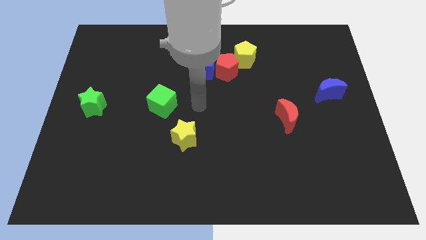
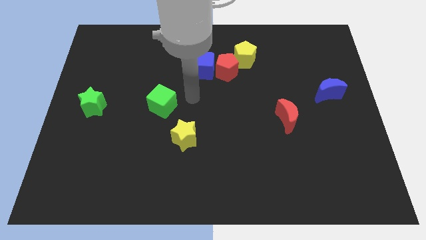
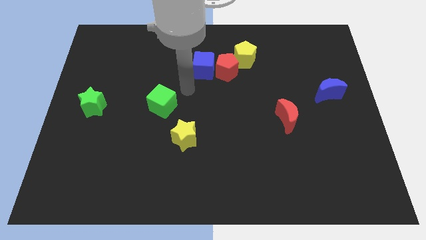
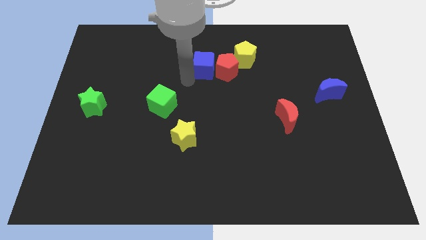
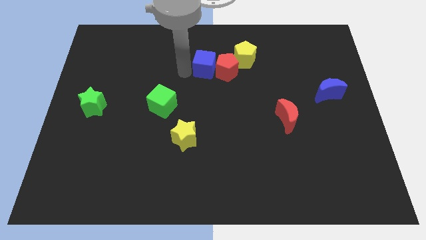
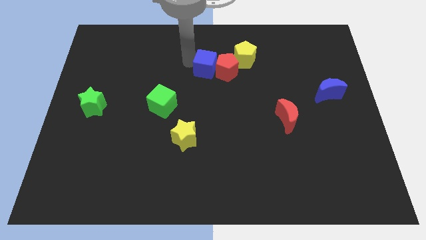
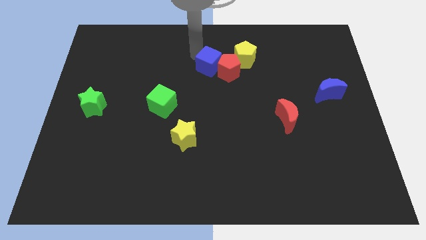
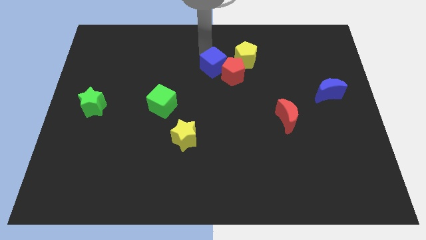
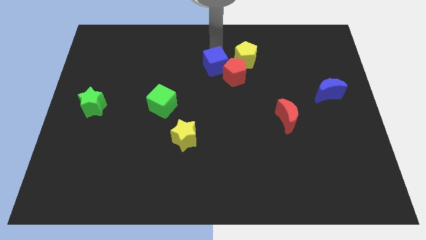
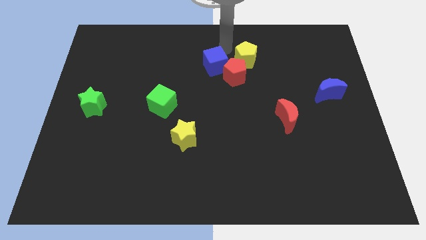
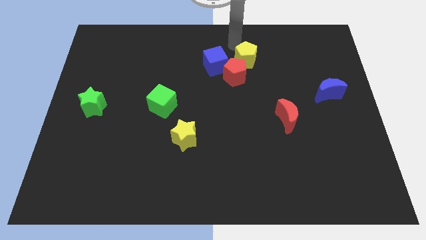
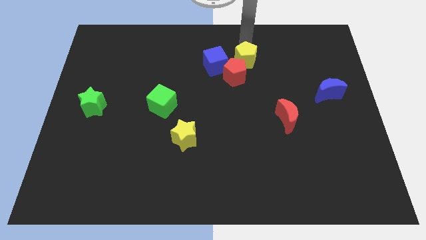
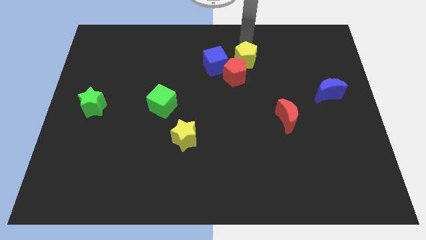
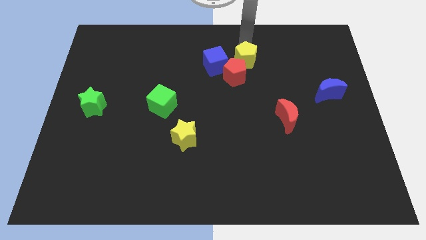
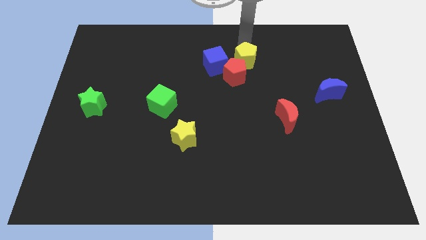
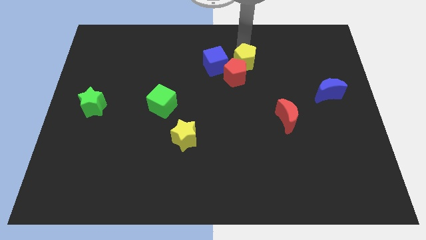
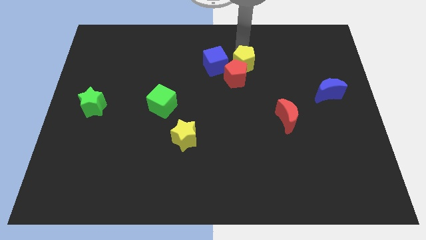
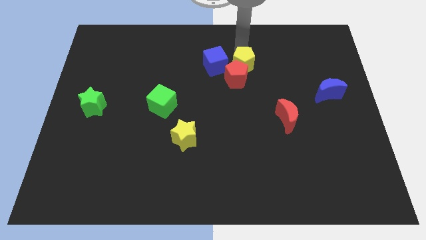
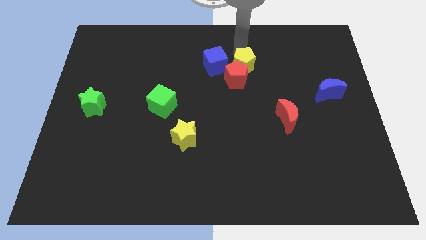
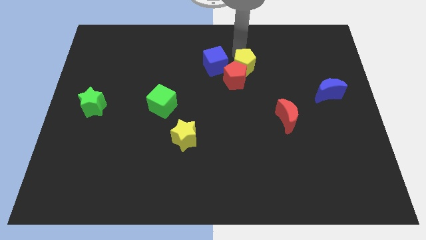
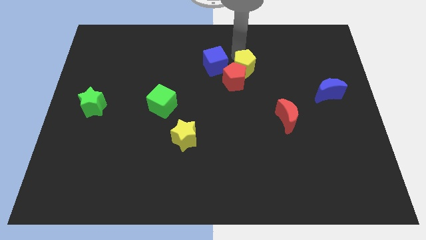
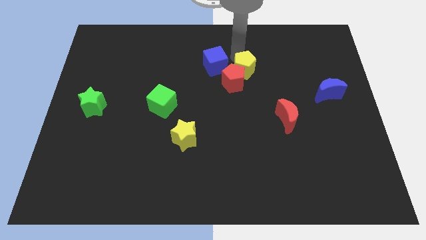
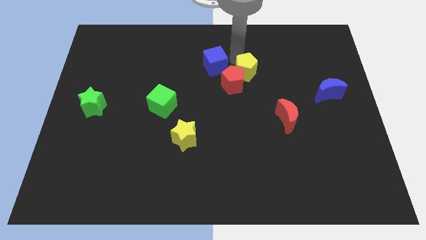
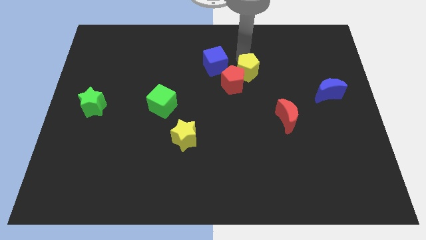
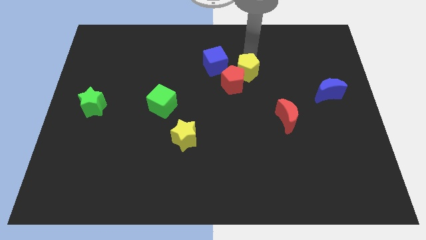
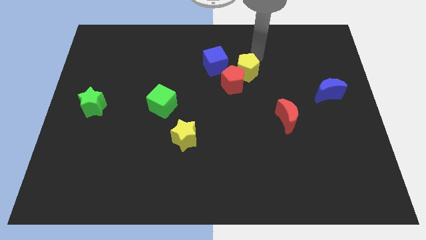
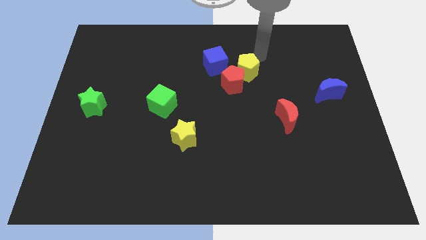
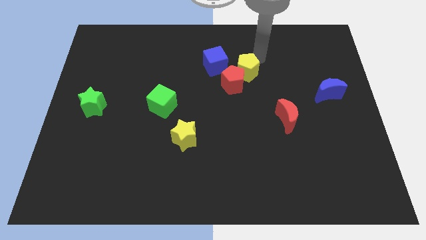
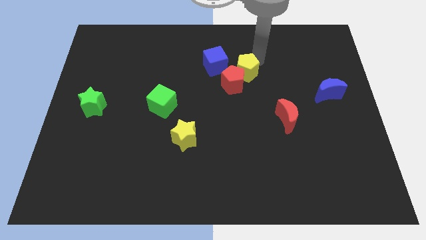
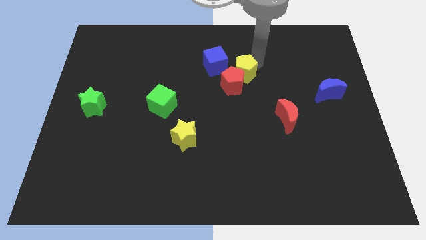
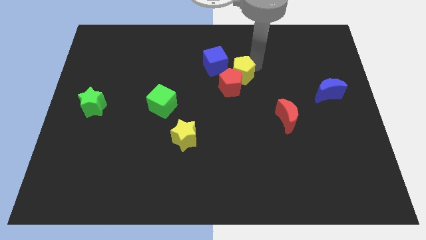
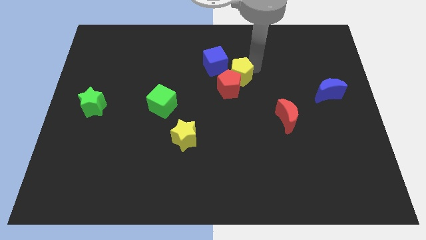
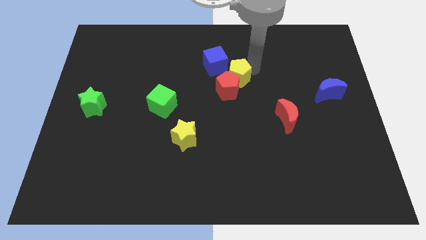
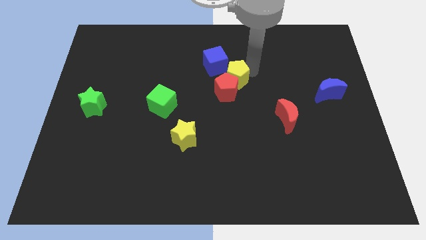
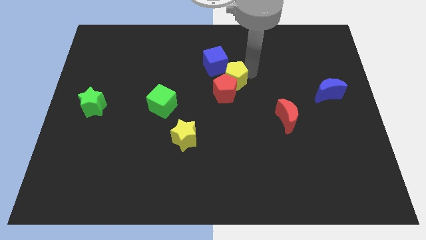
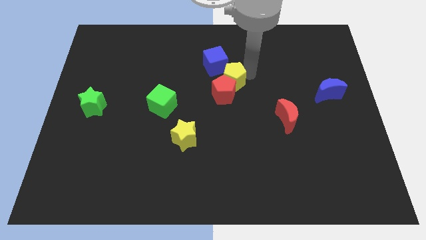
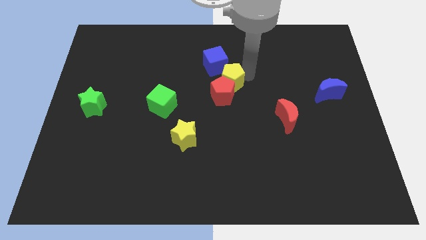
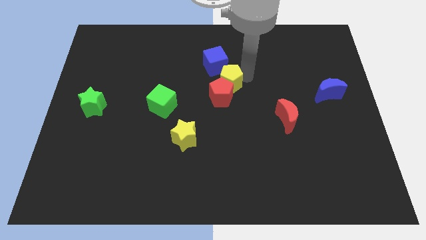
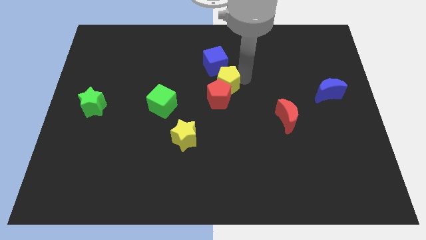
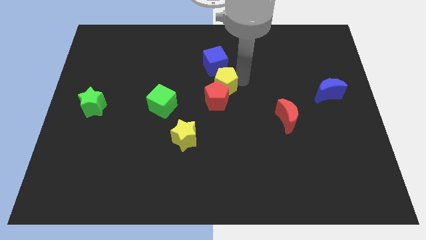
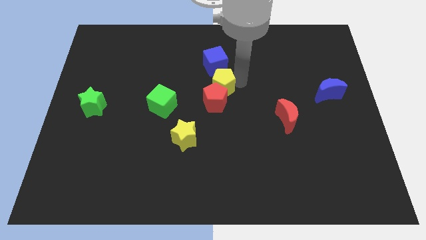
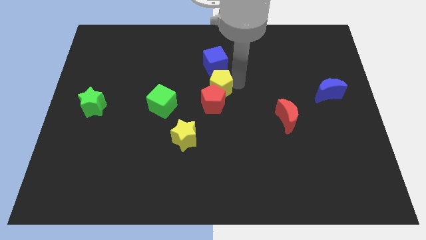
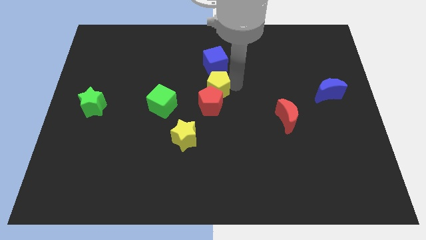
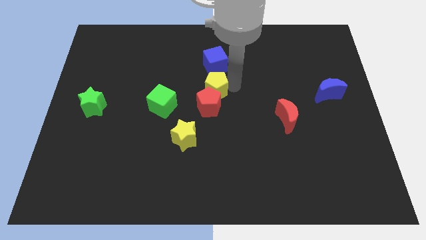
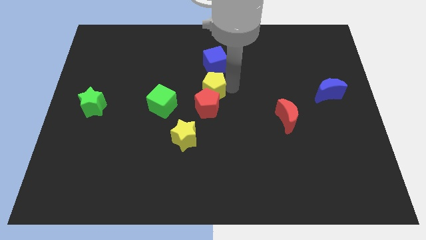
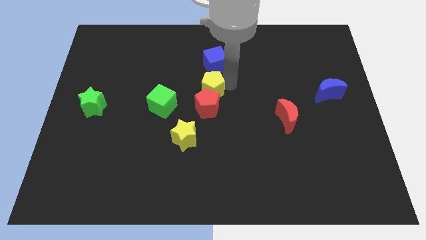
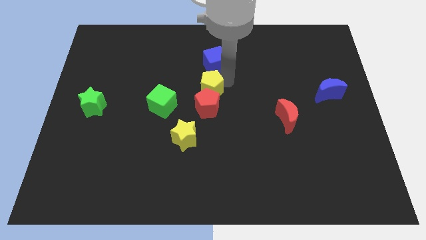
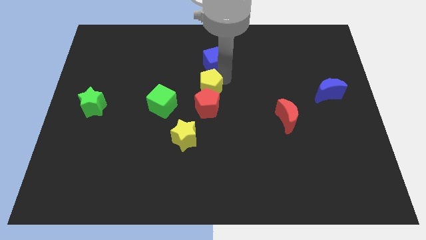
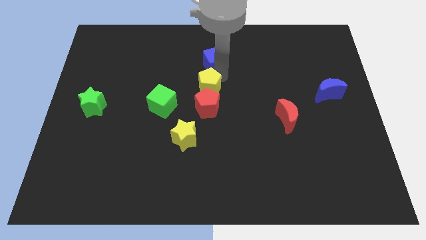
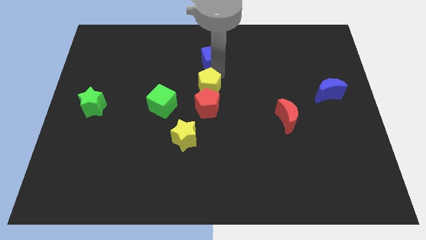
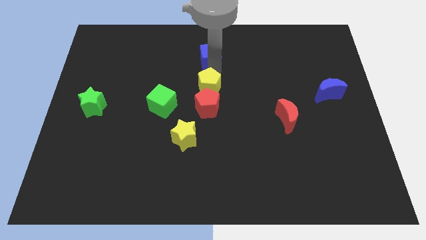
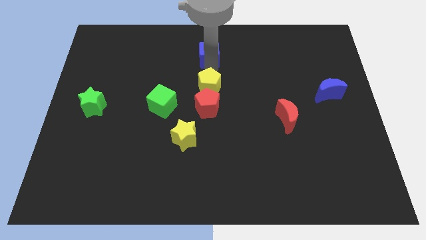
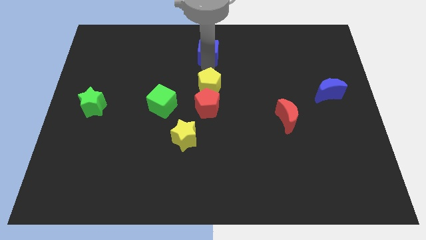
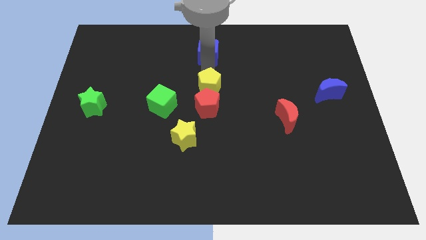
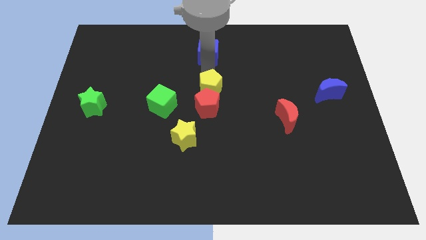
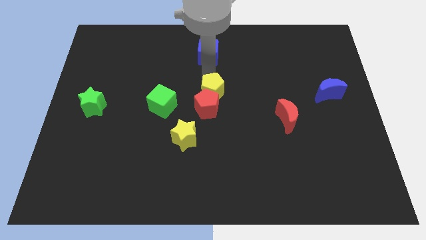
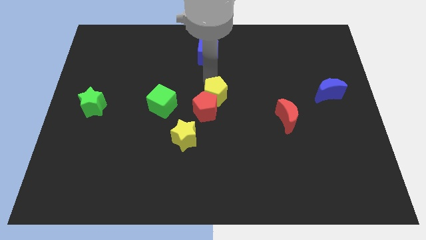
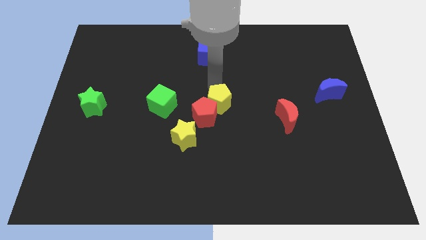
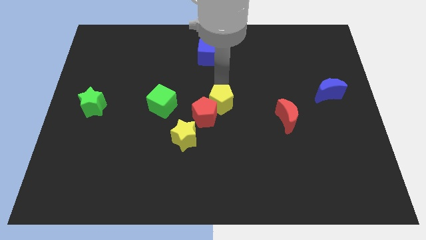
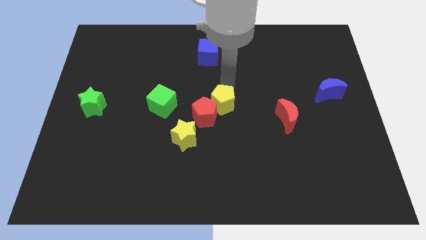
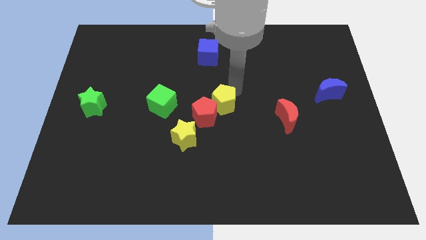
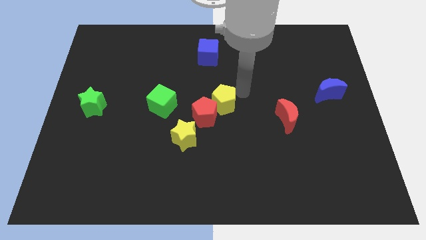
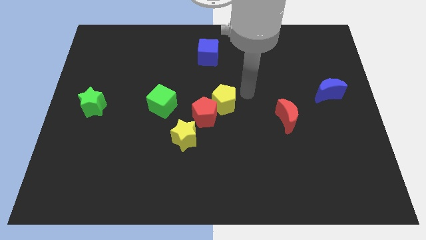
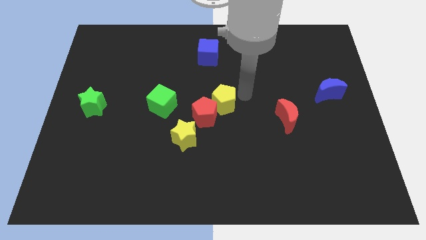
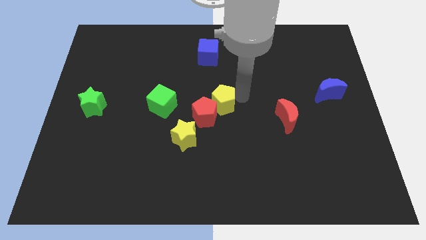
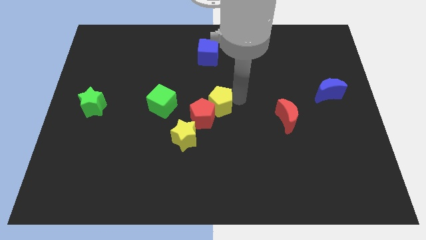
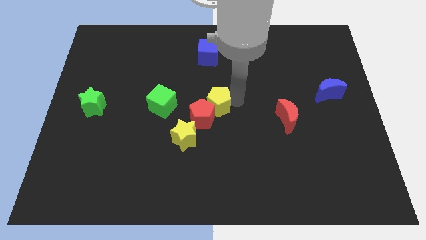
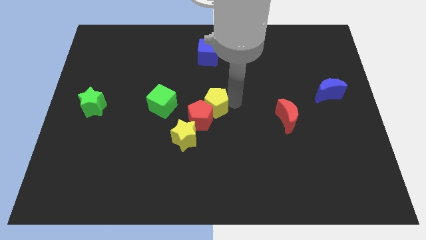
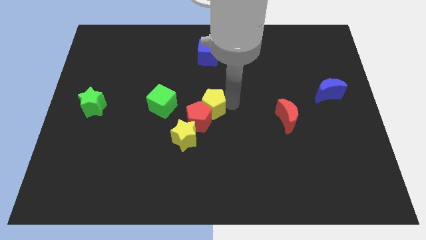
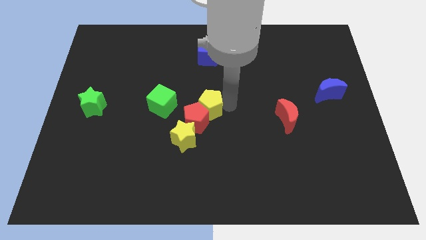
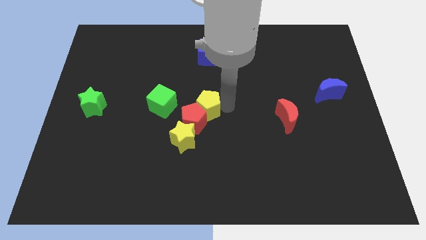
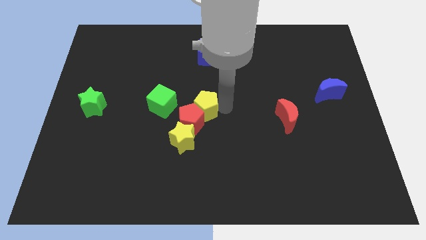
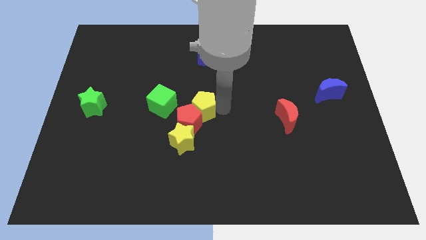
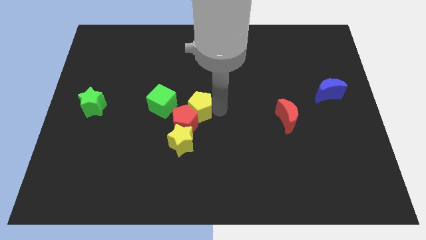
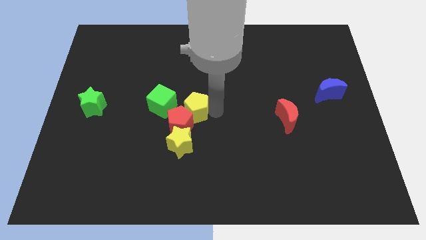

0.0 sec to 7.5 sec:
push the yellow pentagon down and left
